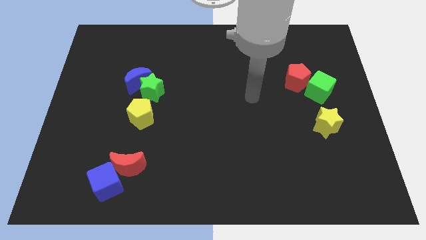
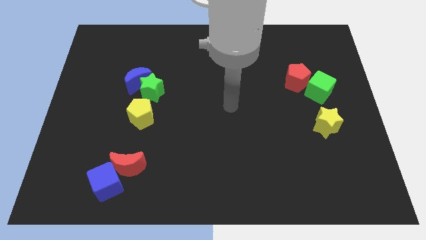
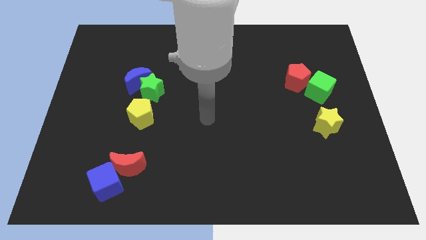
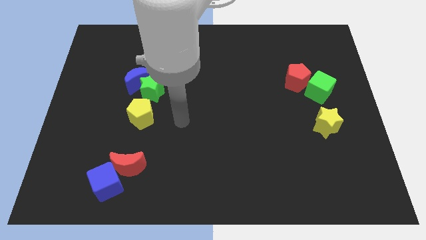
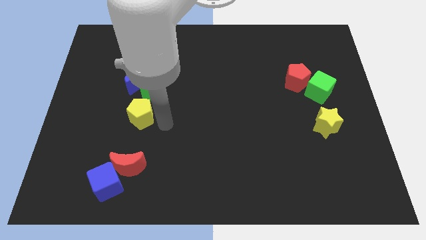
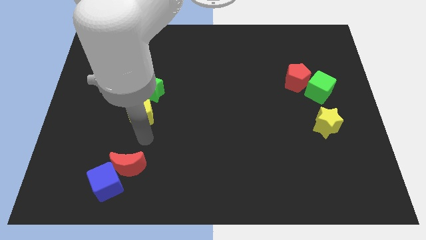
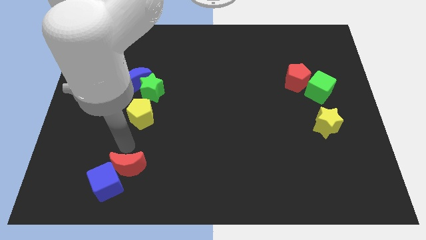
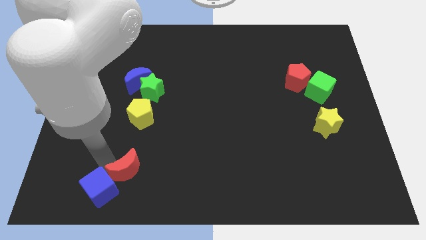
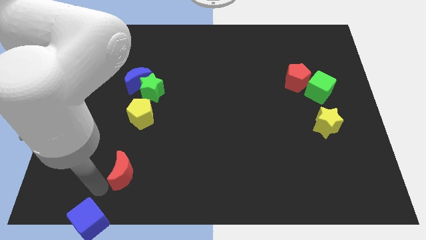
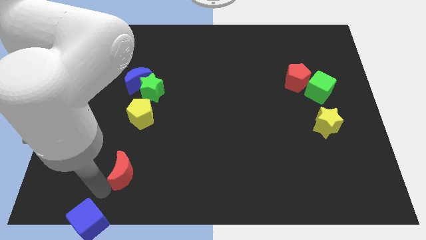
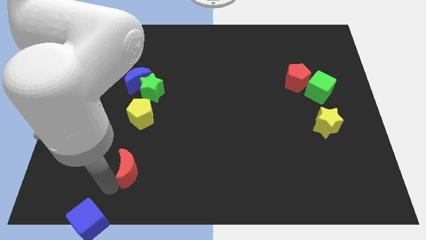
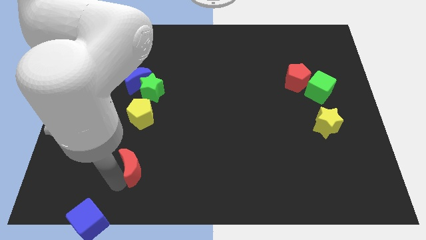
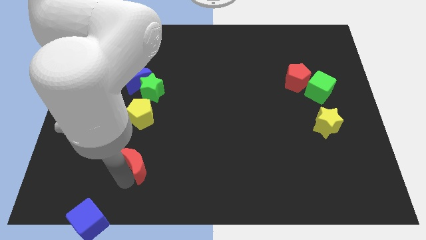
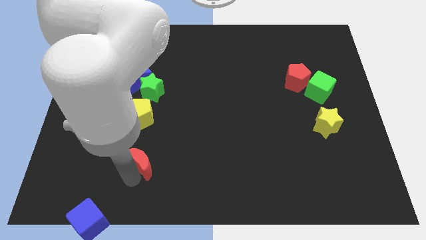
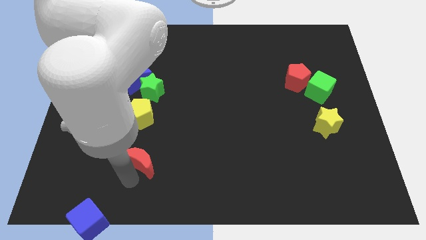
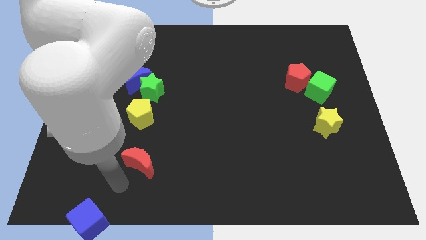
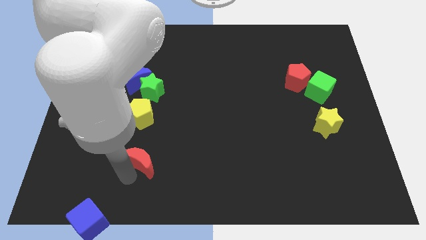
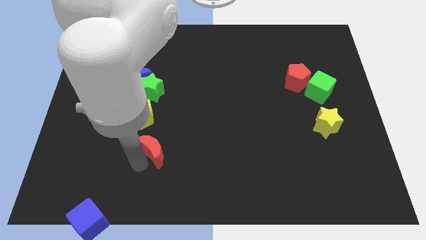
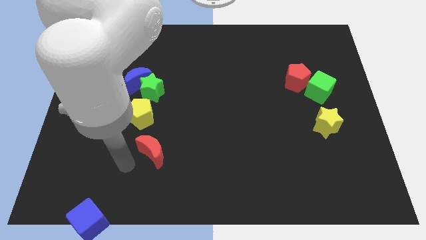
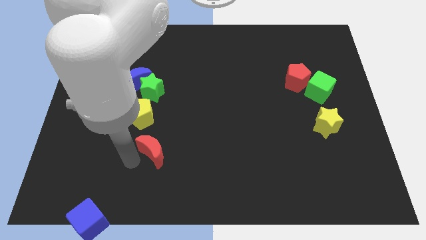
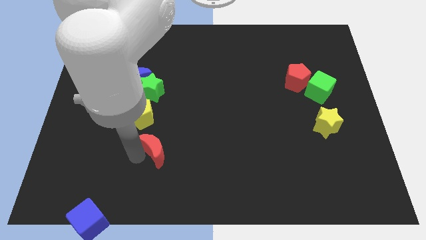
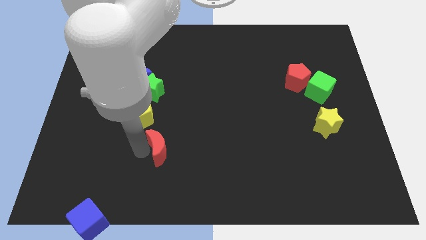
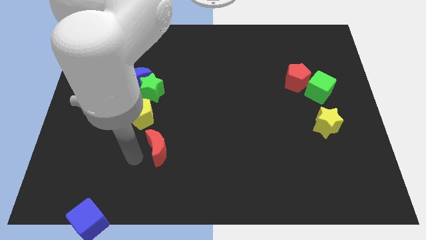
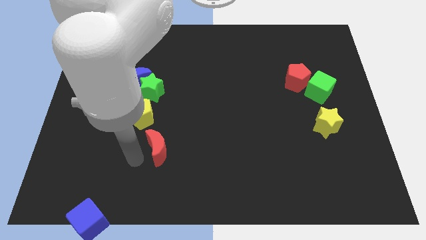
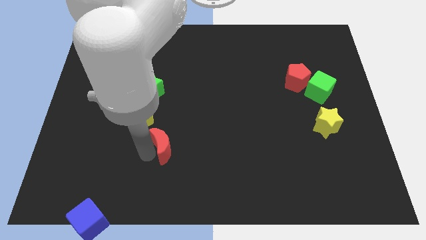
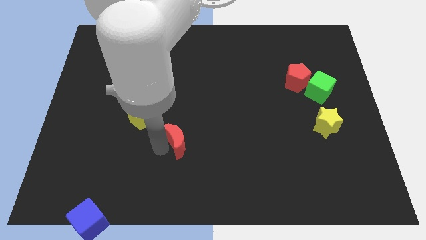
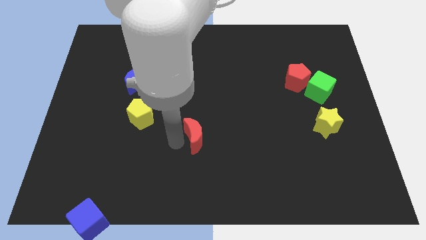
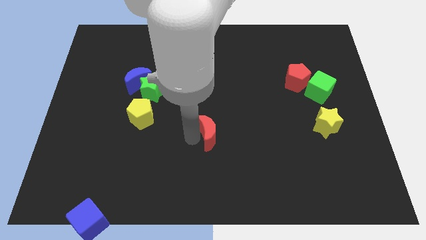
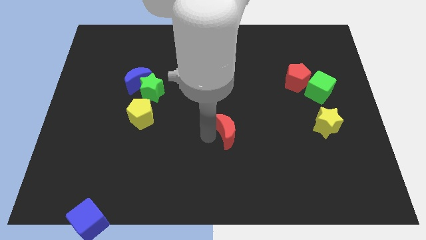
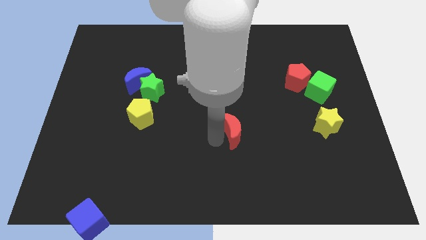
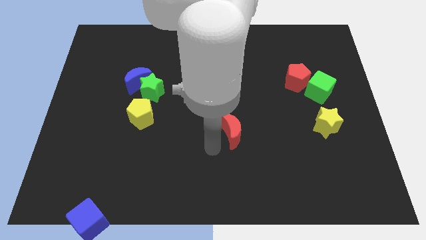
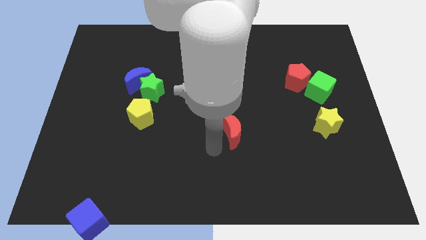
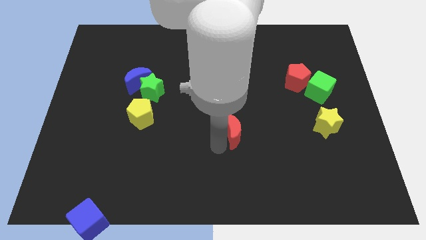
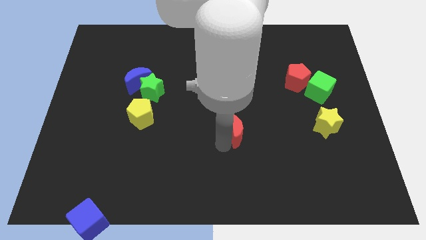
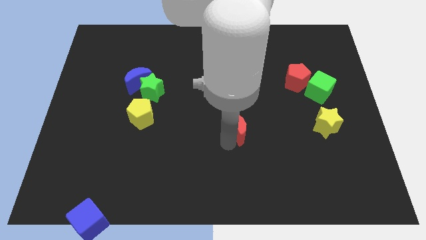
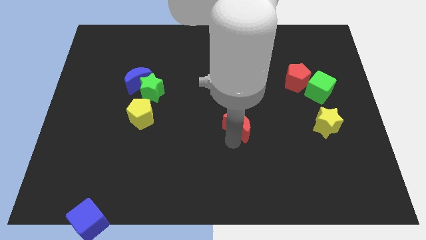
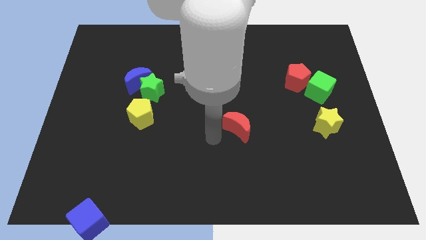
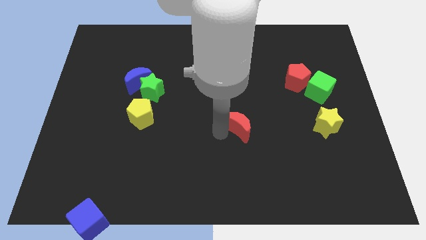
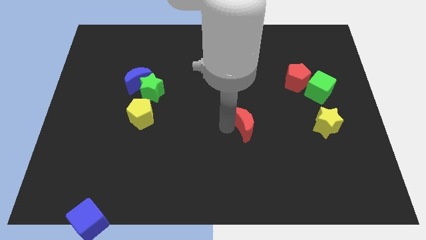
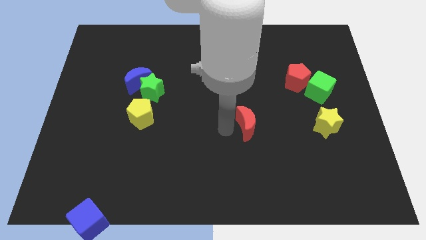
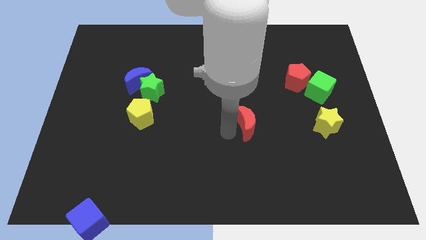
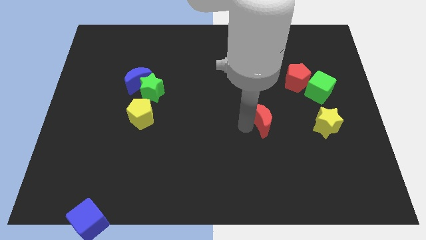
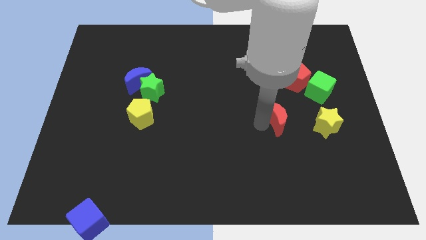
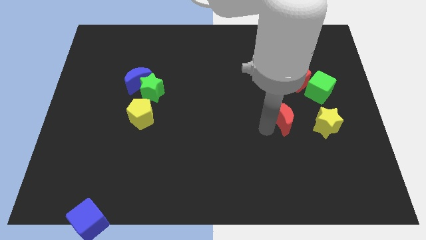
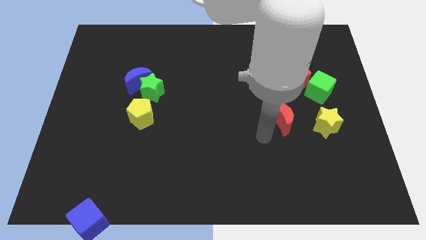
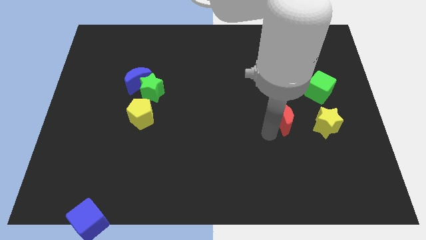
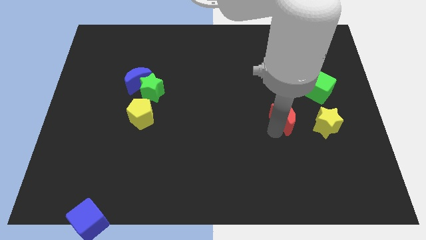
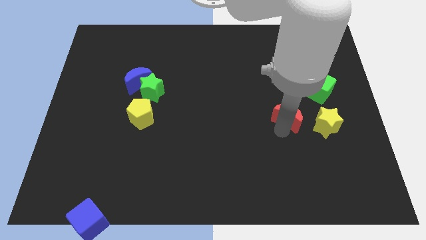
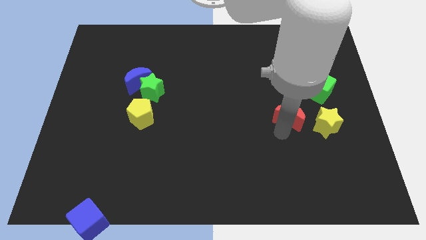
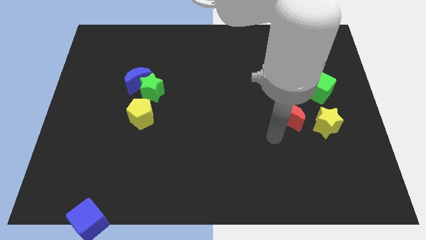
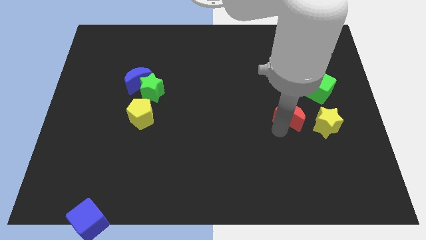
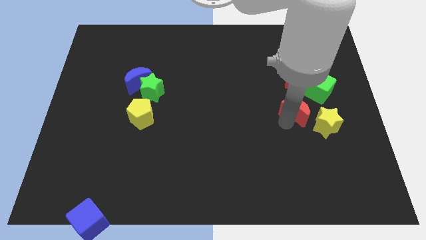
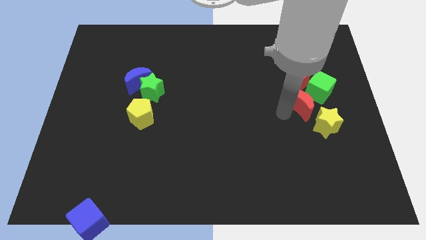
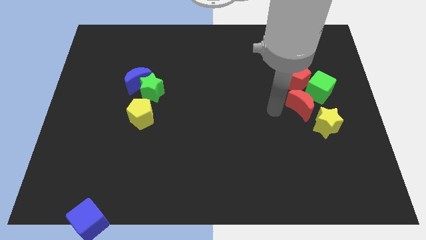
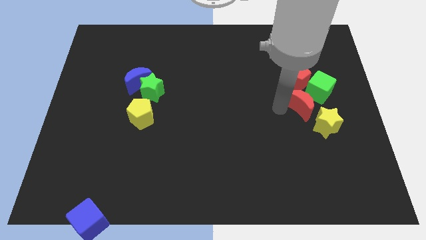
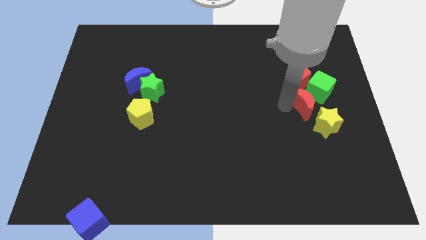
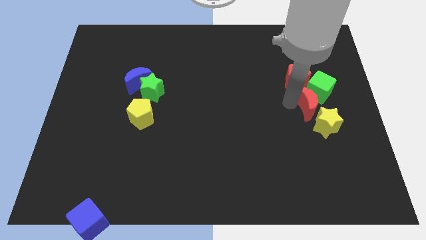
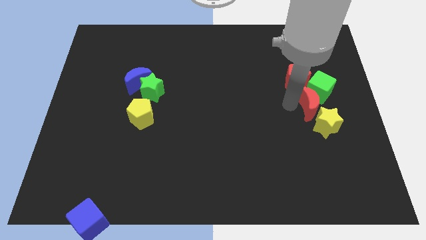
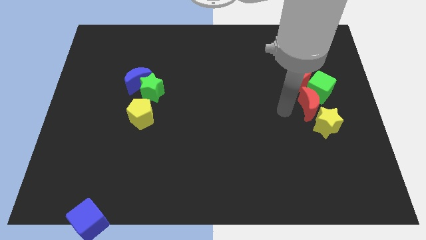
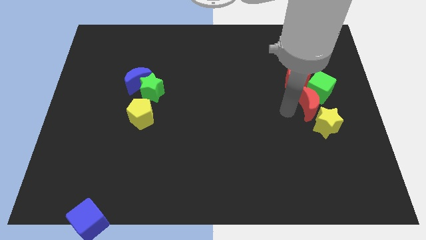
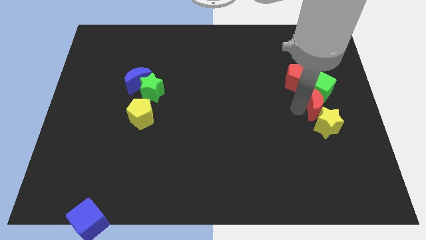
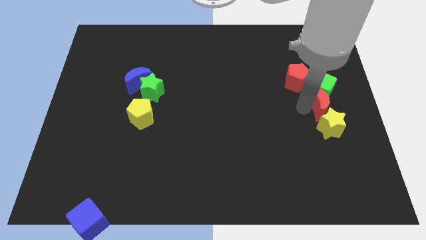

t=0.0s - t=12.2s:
slide the red moon to the right side of the board

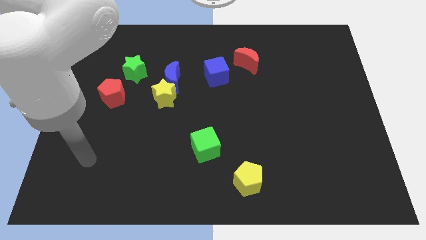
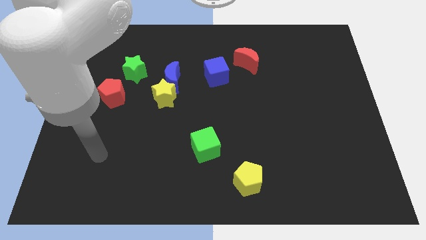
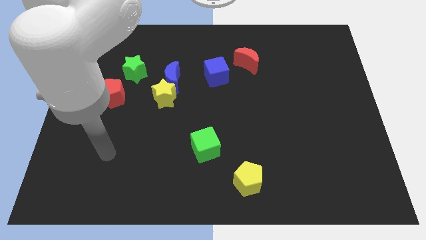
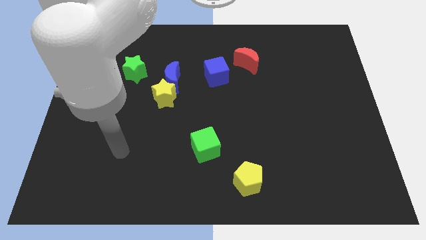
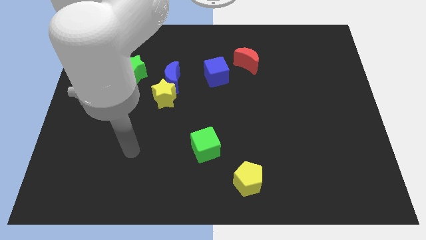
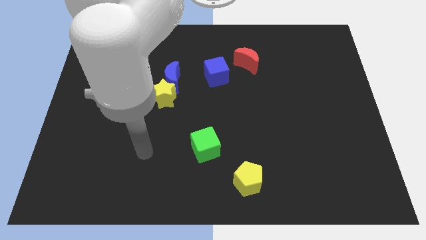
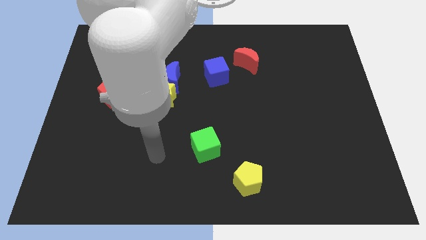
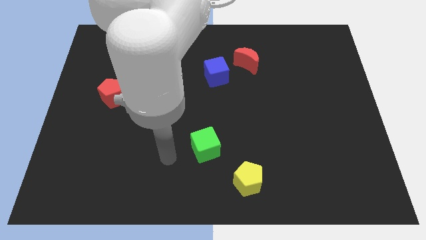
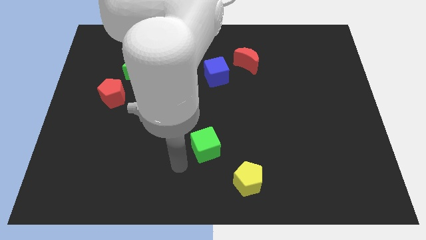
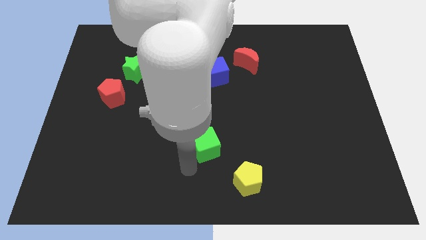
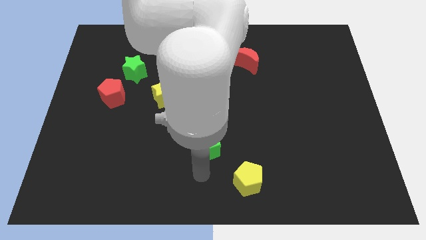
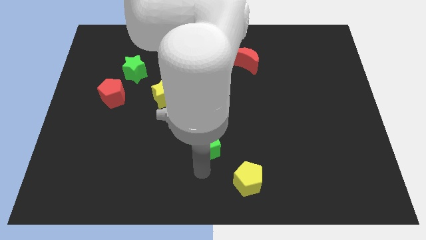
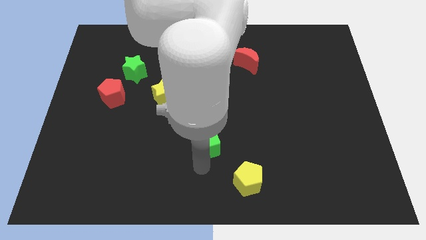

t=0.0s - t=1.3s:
slide the green cube to the center of the board
